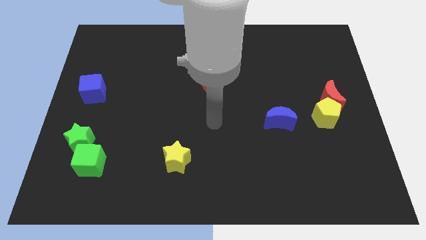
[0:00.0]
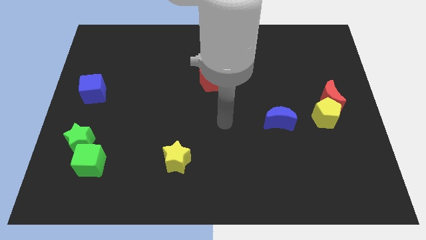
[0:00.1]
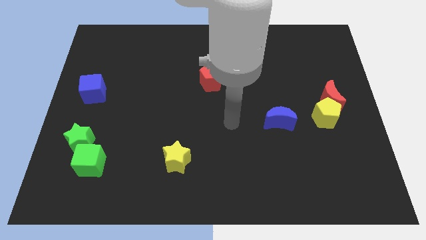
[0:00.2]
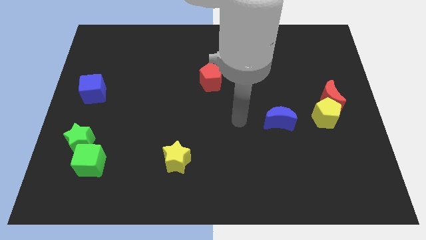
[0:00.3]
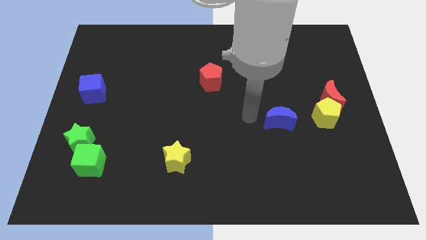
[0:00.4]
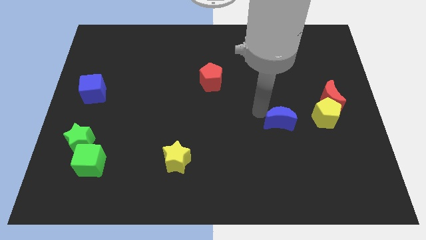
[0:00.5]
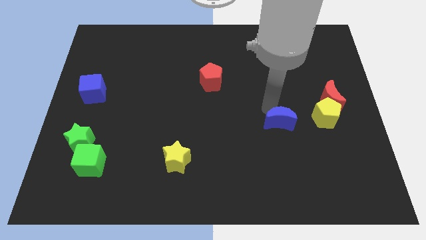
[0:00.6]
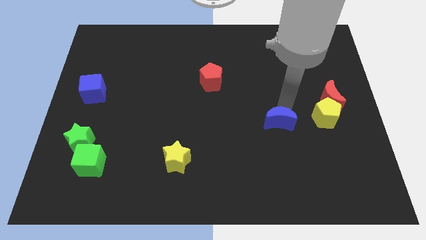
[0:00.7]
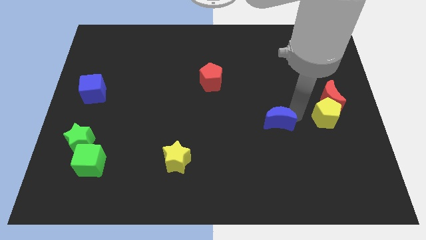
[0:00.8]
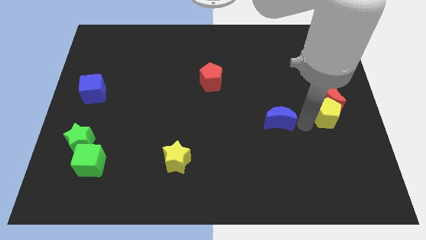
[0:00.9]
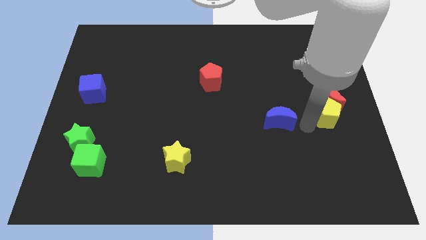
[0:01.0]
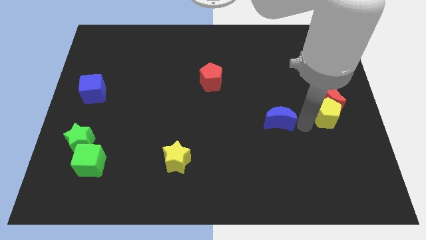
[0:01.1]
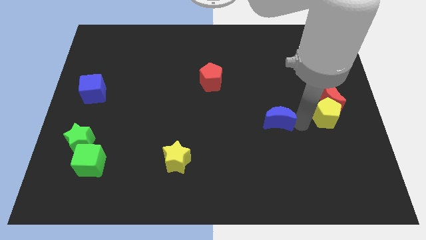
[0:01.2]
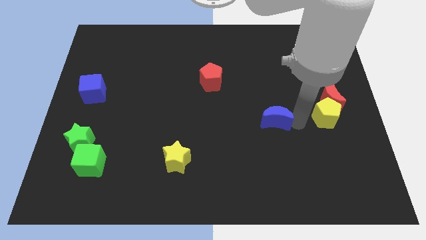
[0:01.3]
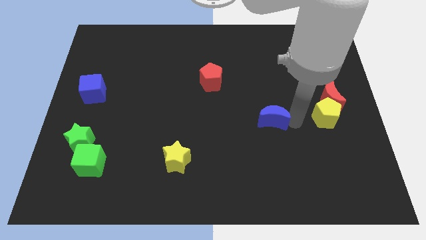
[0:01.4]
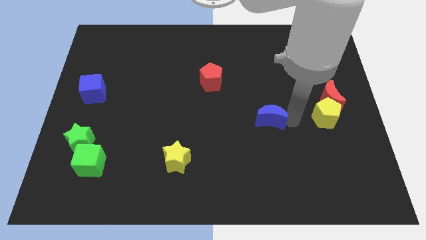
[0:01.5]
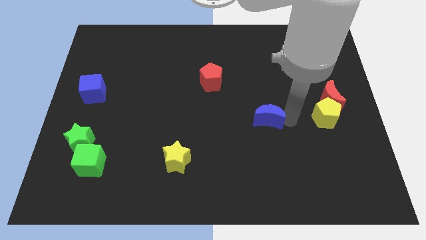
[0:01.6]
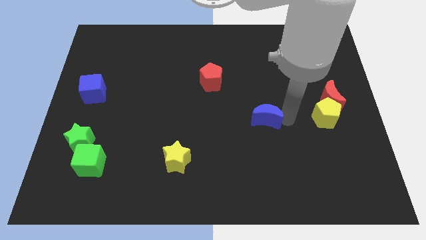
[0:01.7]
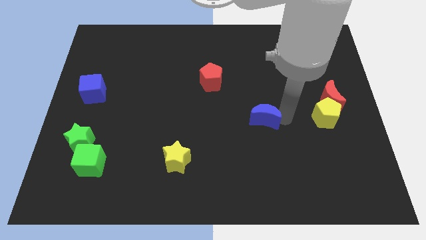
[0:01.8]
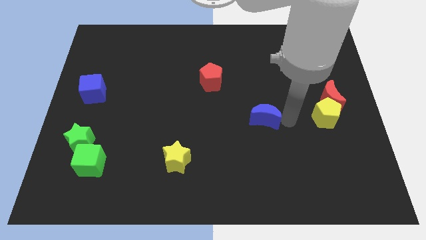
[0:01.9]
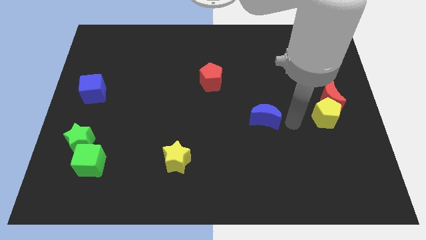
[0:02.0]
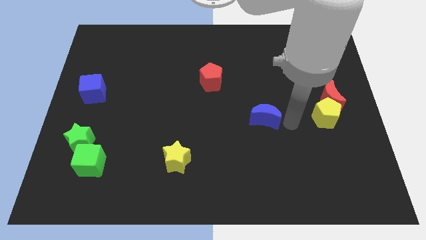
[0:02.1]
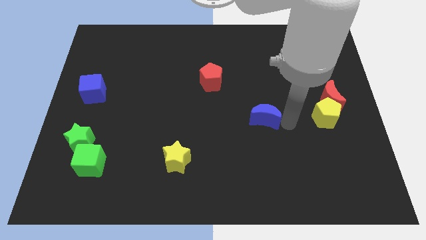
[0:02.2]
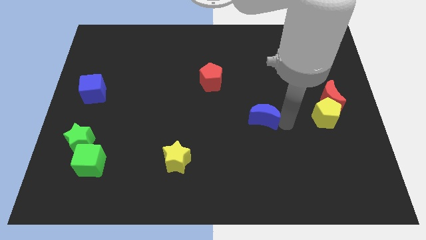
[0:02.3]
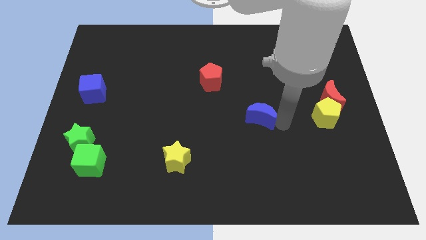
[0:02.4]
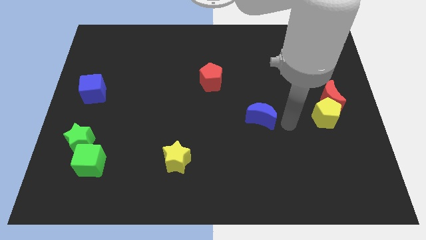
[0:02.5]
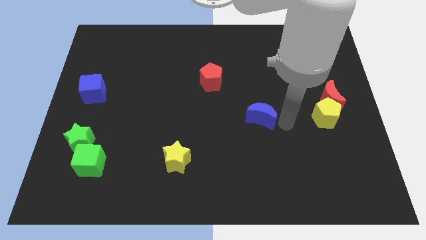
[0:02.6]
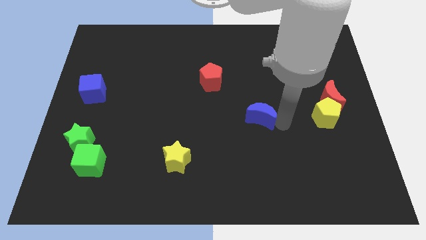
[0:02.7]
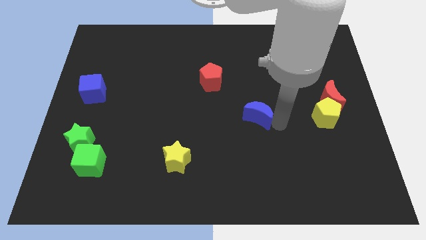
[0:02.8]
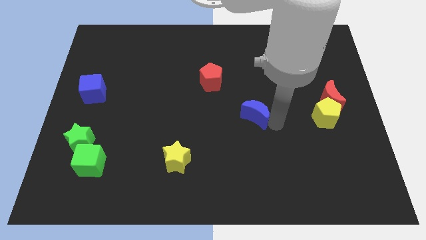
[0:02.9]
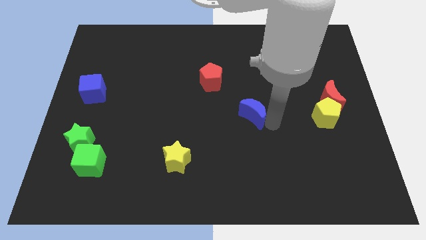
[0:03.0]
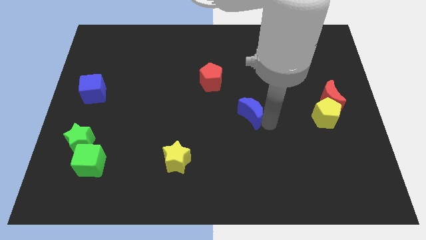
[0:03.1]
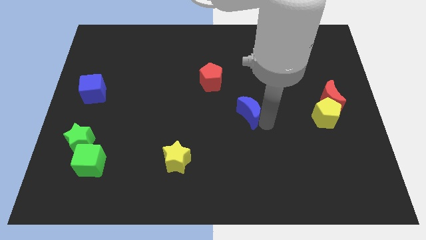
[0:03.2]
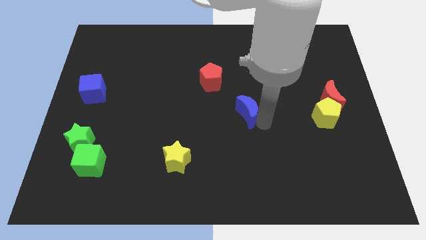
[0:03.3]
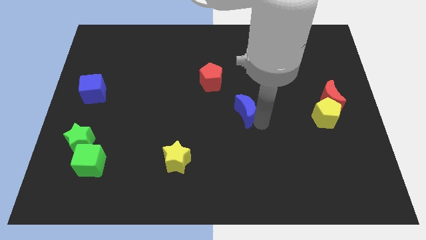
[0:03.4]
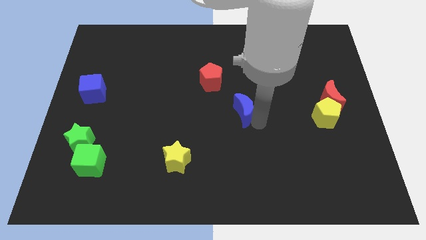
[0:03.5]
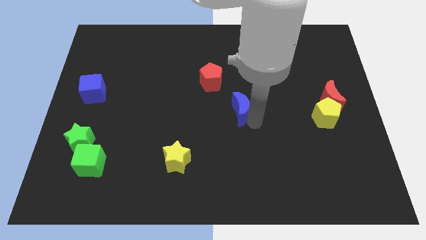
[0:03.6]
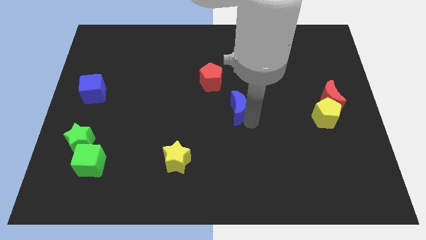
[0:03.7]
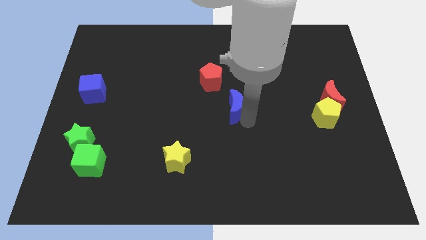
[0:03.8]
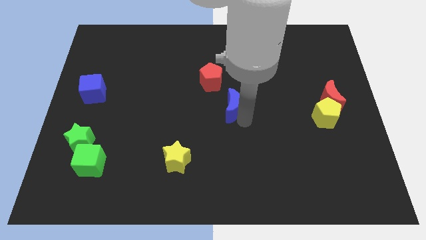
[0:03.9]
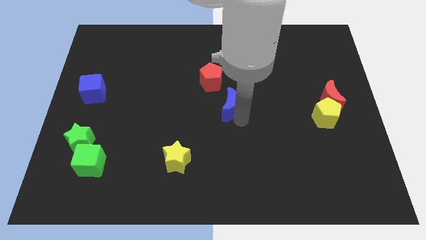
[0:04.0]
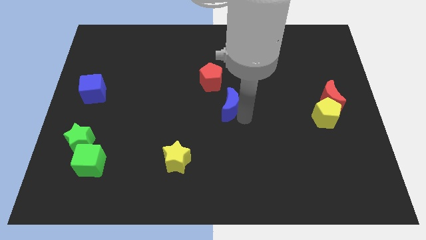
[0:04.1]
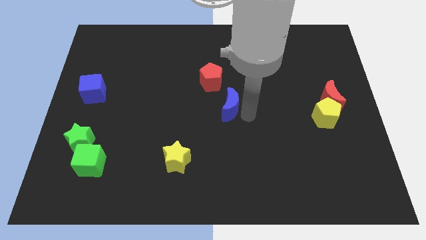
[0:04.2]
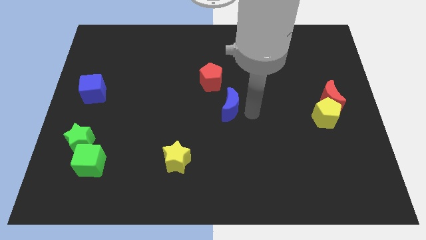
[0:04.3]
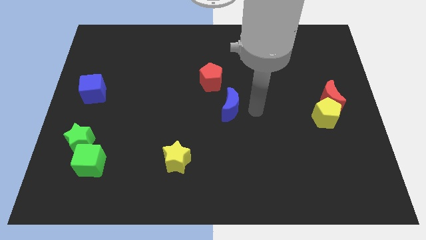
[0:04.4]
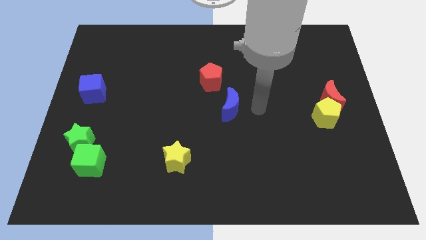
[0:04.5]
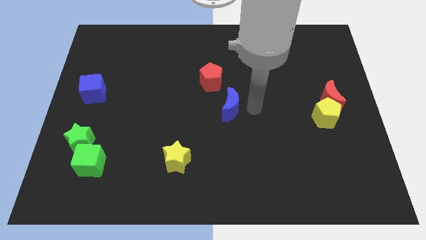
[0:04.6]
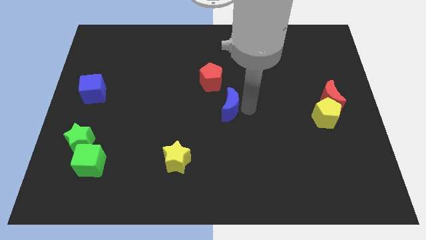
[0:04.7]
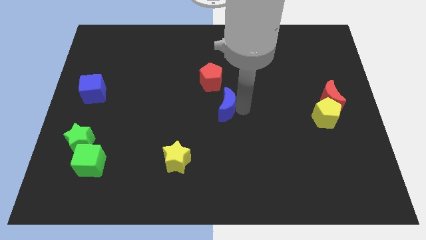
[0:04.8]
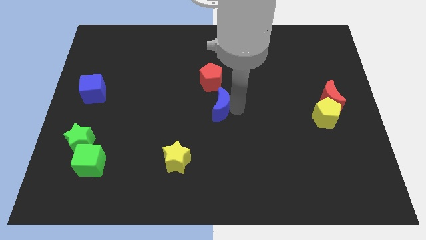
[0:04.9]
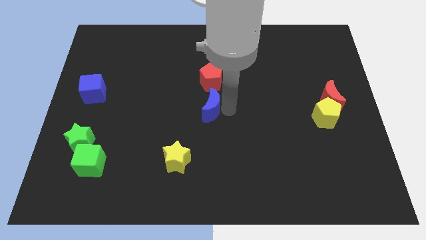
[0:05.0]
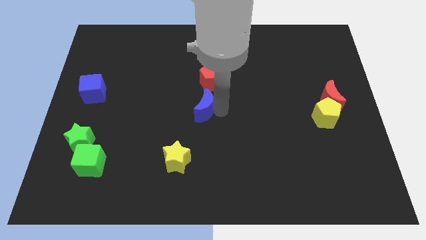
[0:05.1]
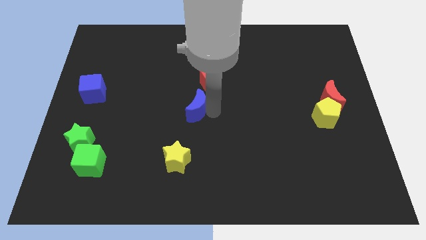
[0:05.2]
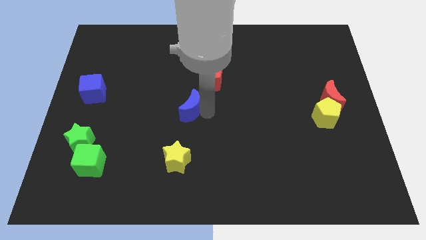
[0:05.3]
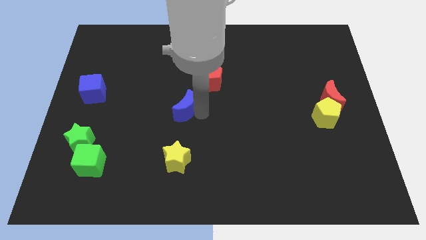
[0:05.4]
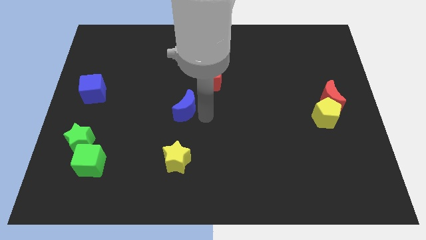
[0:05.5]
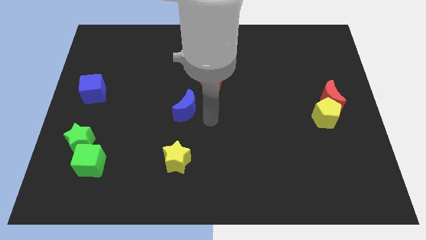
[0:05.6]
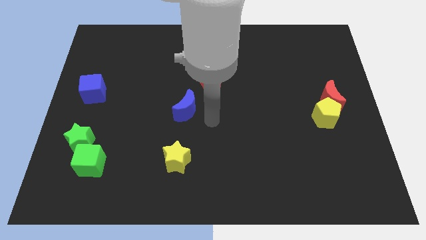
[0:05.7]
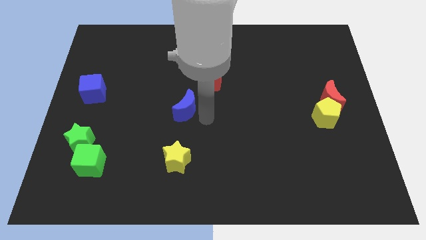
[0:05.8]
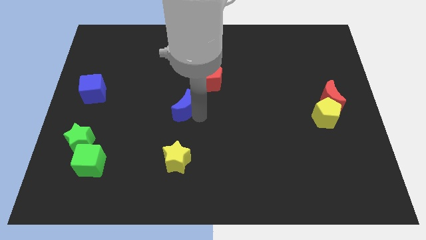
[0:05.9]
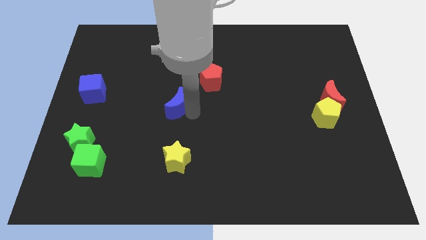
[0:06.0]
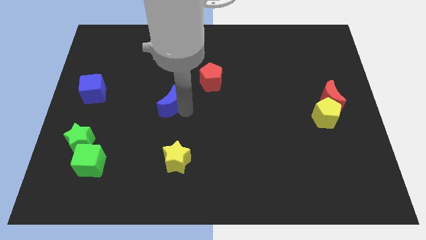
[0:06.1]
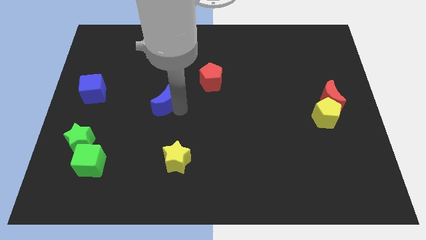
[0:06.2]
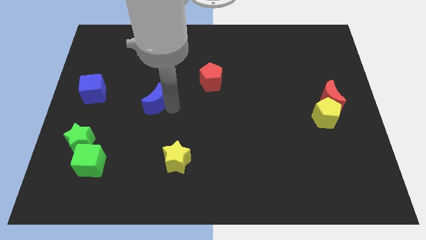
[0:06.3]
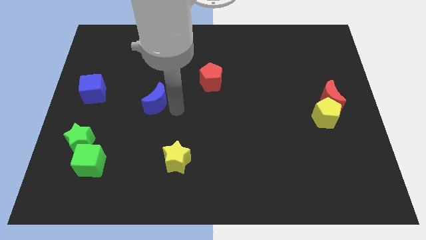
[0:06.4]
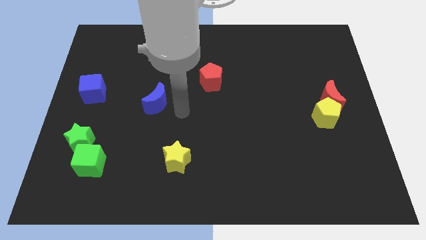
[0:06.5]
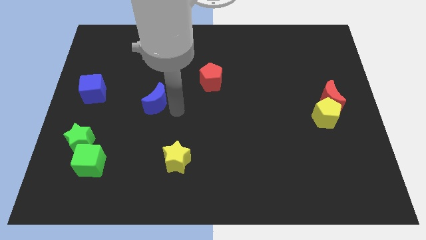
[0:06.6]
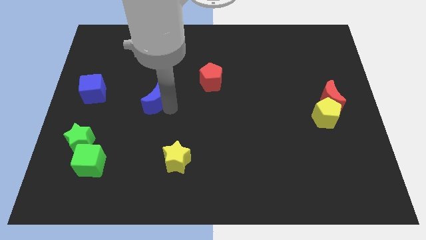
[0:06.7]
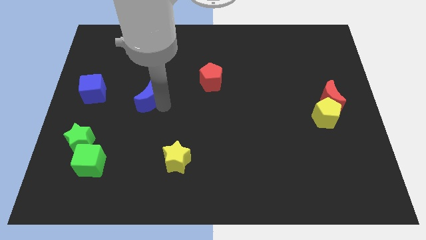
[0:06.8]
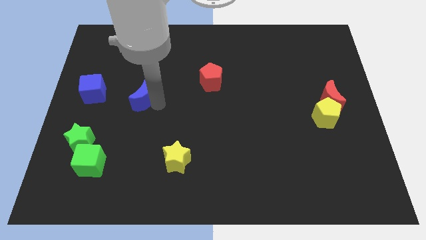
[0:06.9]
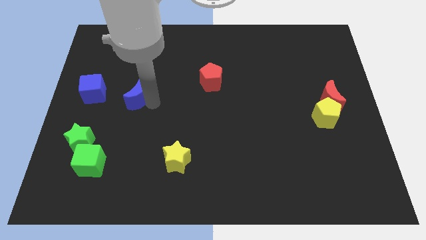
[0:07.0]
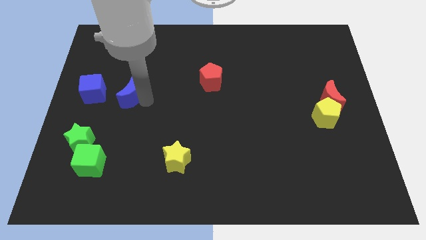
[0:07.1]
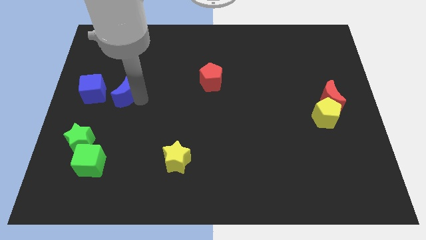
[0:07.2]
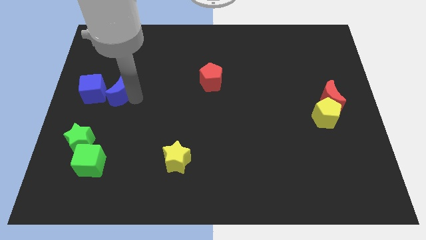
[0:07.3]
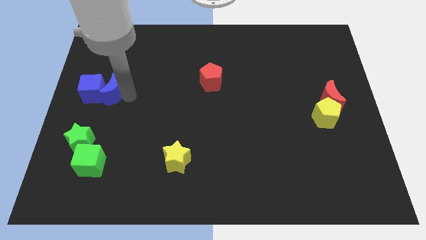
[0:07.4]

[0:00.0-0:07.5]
put the blue moon close to the blue cube

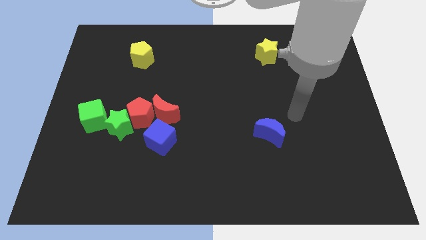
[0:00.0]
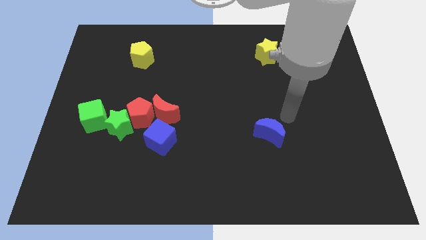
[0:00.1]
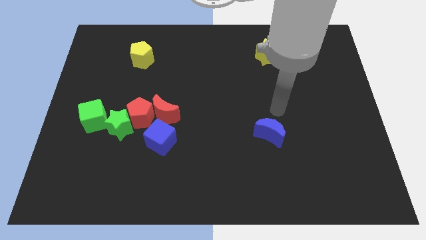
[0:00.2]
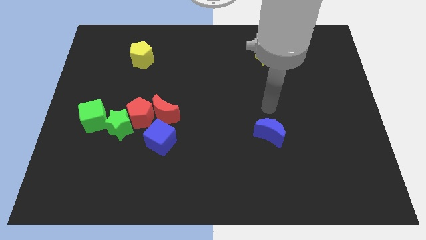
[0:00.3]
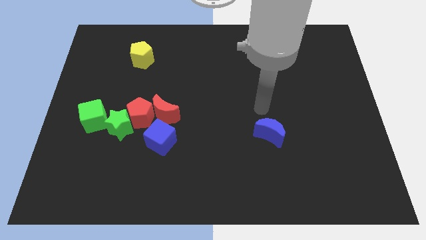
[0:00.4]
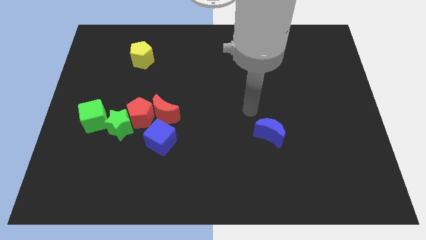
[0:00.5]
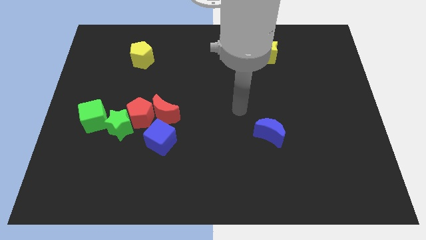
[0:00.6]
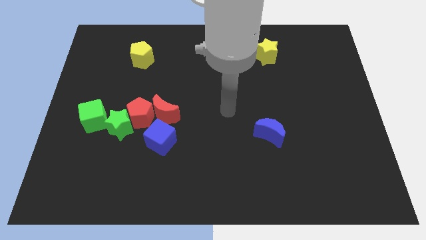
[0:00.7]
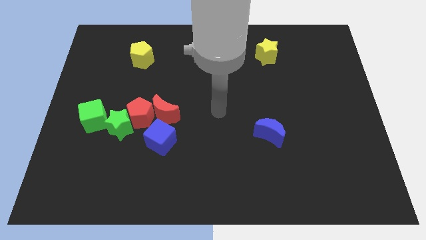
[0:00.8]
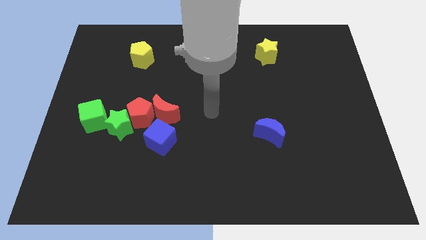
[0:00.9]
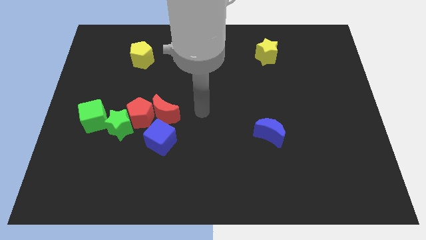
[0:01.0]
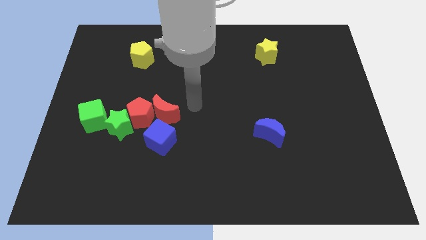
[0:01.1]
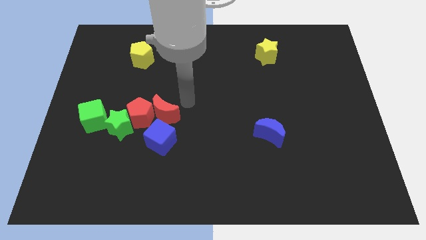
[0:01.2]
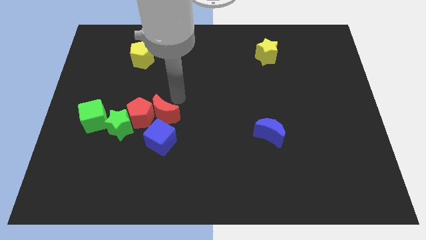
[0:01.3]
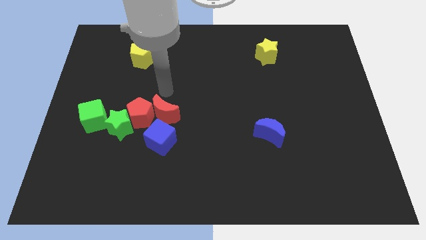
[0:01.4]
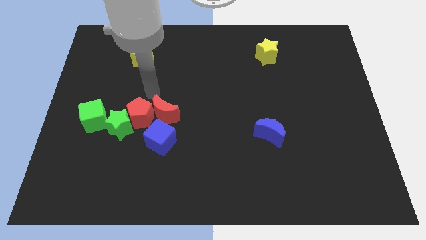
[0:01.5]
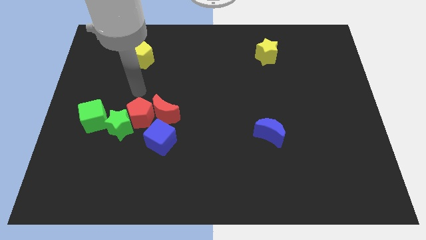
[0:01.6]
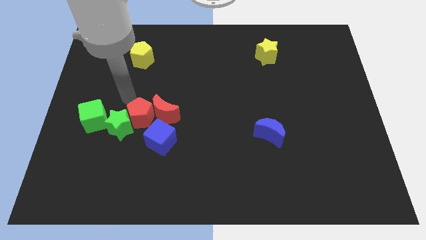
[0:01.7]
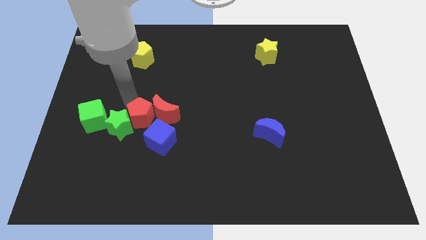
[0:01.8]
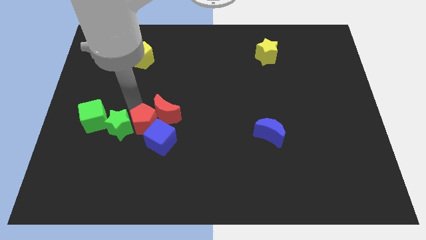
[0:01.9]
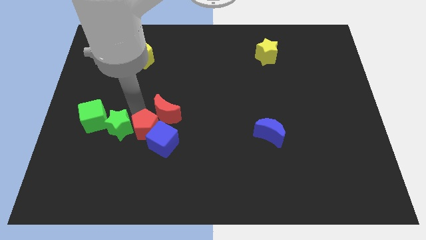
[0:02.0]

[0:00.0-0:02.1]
put the red pentagon next to the blue cube
